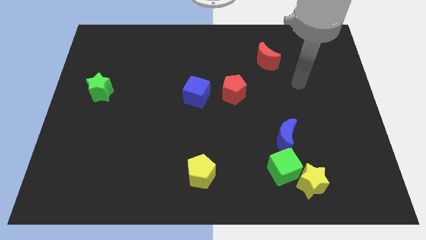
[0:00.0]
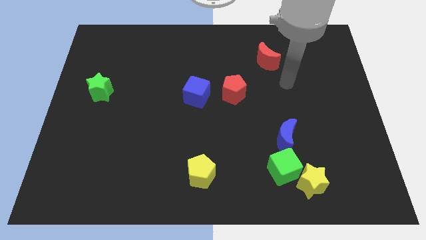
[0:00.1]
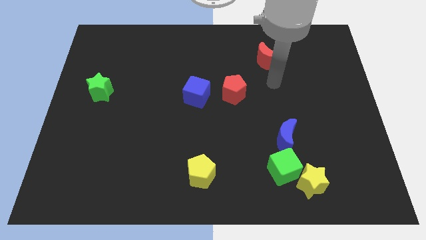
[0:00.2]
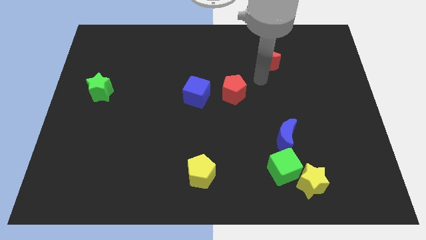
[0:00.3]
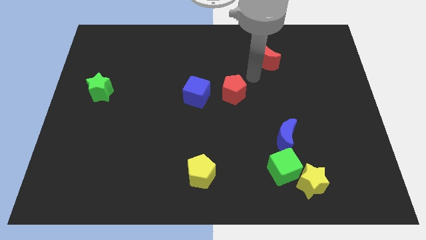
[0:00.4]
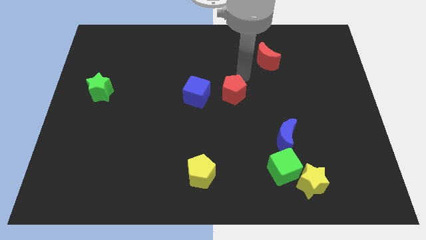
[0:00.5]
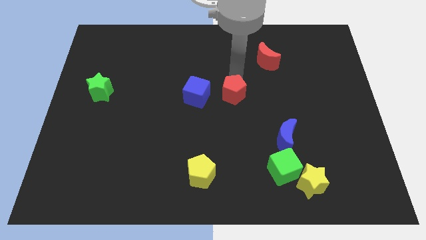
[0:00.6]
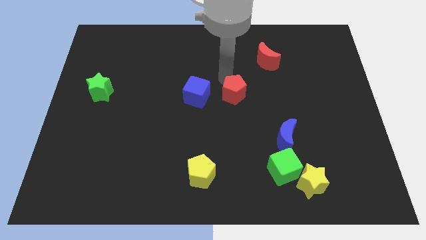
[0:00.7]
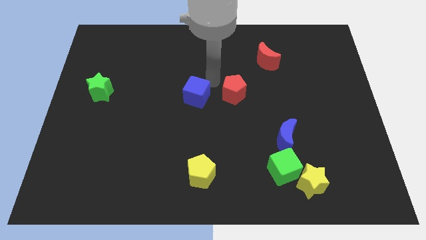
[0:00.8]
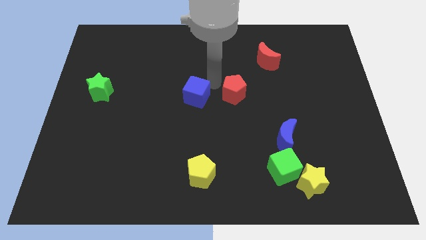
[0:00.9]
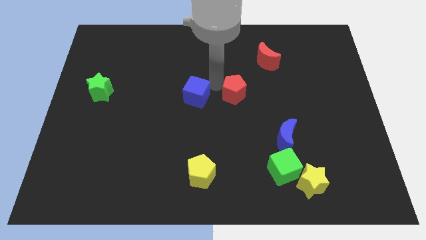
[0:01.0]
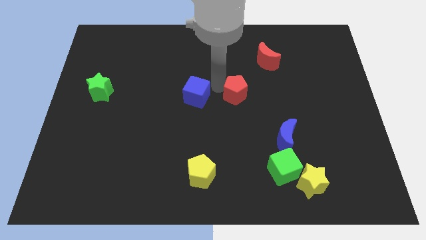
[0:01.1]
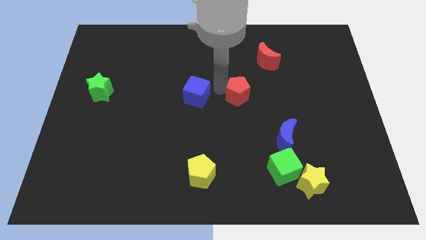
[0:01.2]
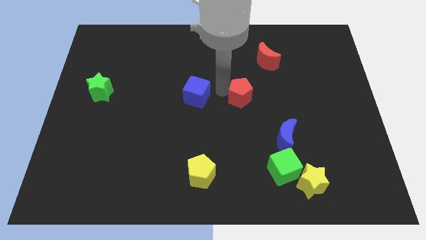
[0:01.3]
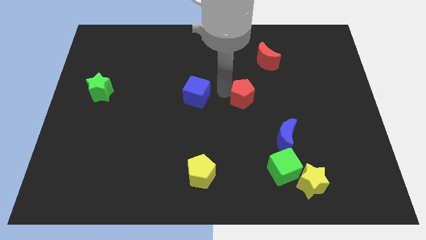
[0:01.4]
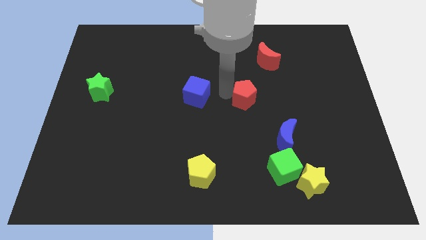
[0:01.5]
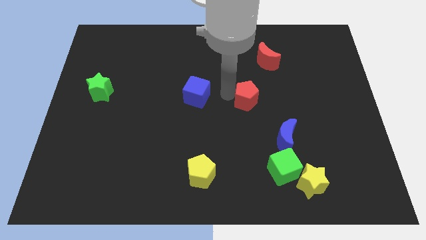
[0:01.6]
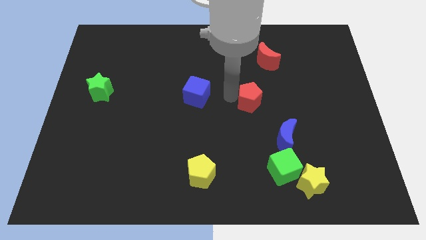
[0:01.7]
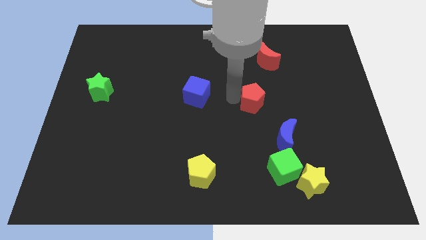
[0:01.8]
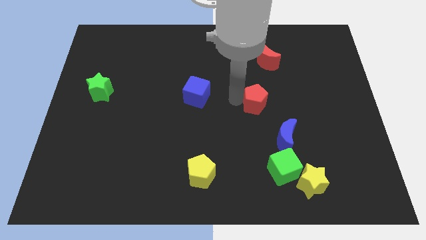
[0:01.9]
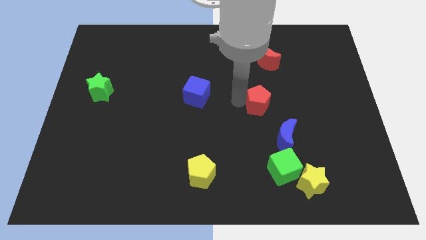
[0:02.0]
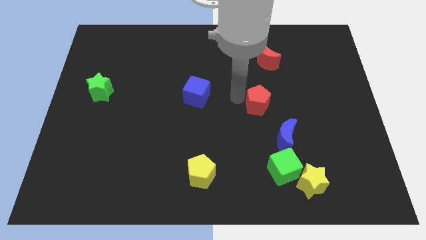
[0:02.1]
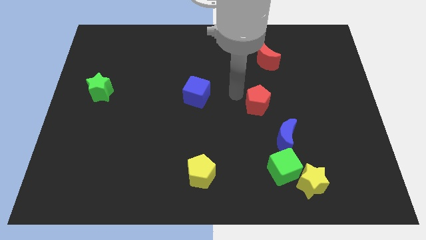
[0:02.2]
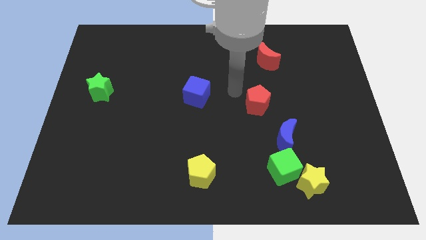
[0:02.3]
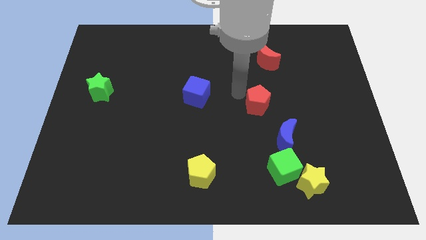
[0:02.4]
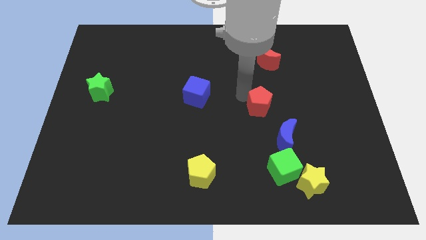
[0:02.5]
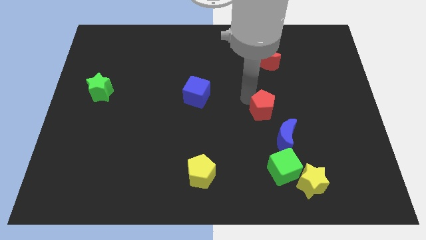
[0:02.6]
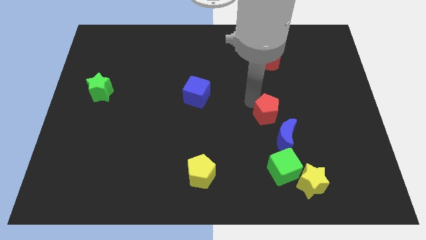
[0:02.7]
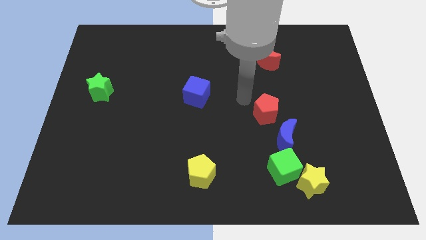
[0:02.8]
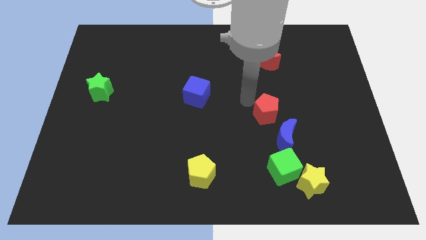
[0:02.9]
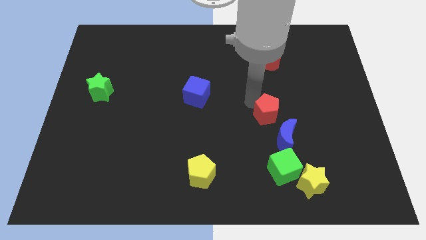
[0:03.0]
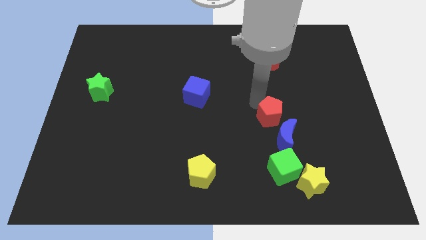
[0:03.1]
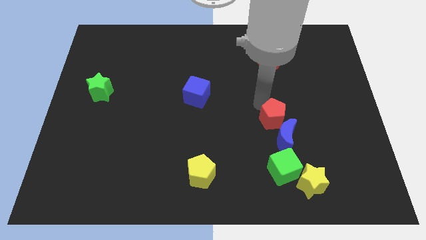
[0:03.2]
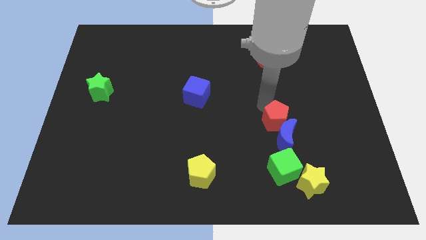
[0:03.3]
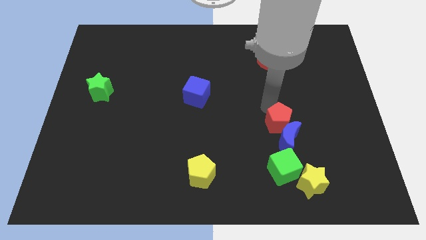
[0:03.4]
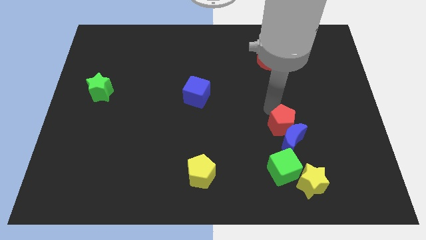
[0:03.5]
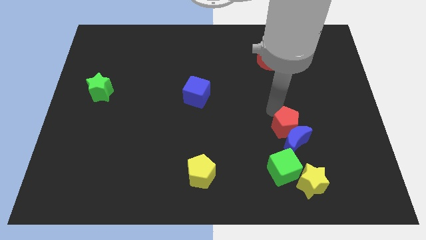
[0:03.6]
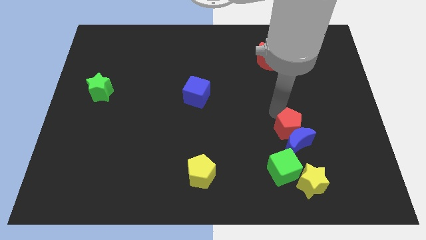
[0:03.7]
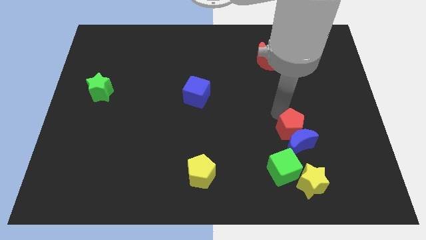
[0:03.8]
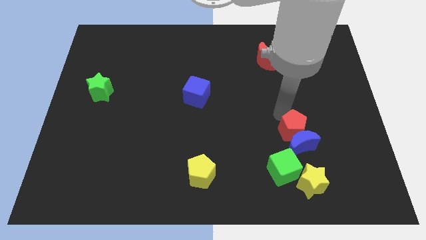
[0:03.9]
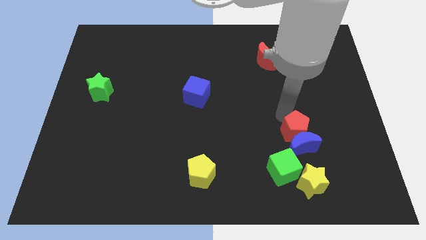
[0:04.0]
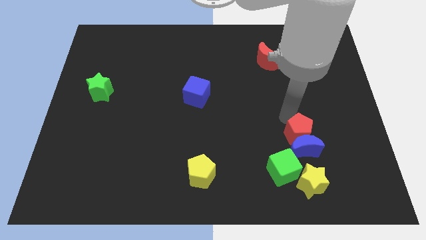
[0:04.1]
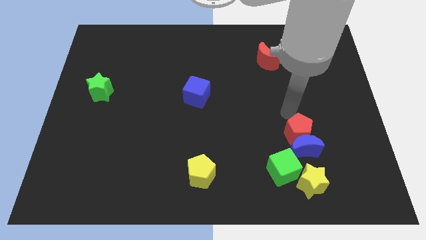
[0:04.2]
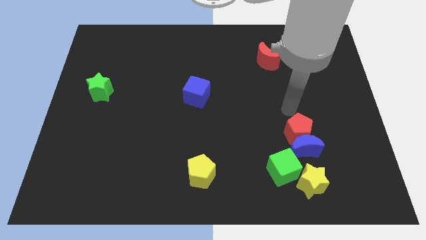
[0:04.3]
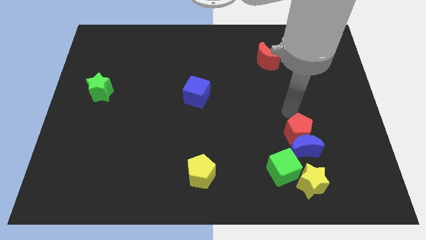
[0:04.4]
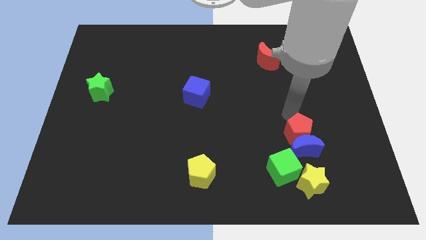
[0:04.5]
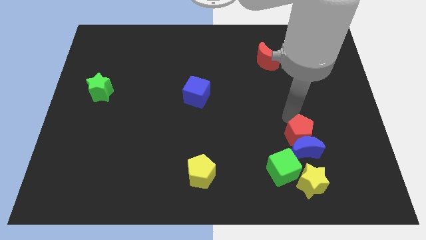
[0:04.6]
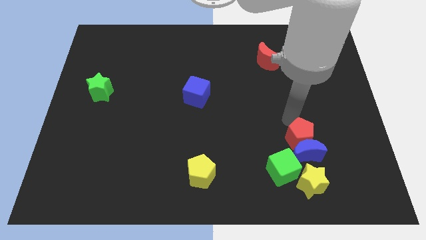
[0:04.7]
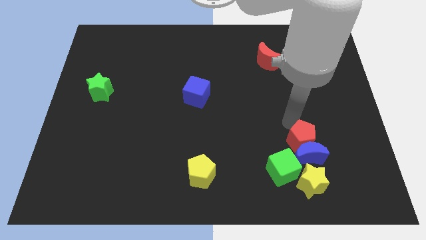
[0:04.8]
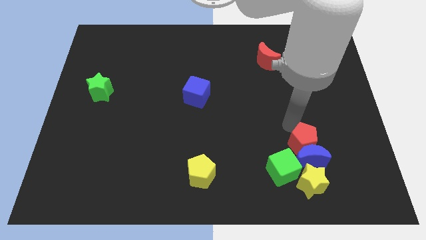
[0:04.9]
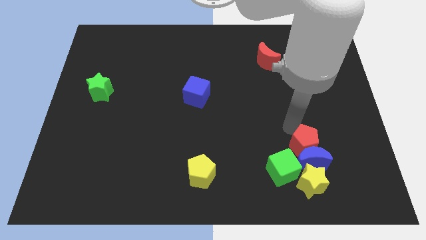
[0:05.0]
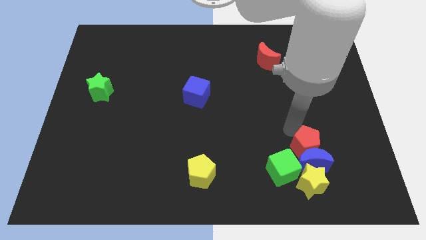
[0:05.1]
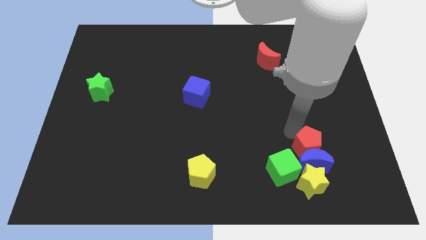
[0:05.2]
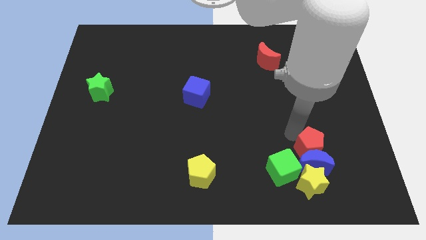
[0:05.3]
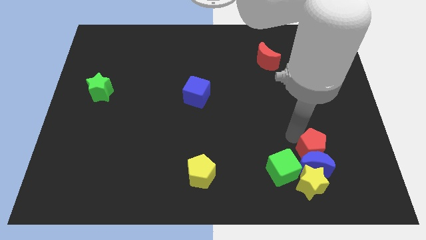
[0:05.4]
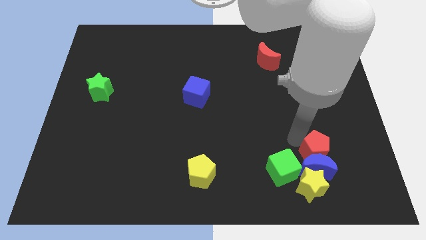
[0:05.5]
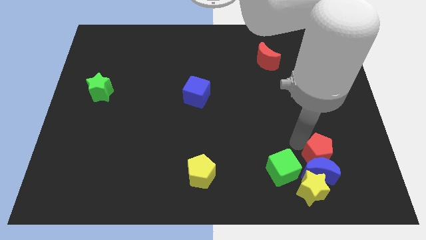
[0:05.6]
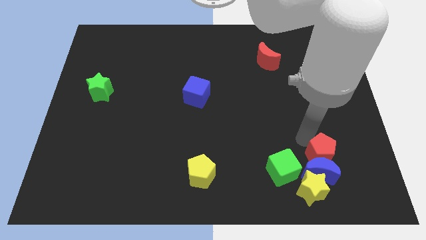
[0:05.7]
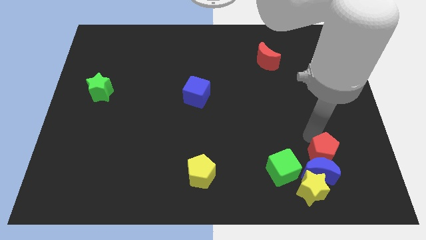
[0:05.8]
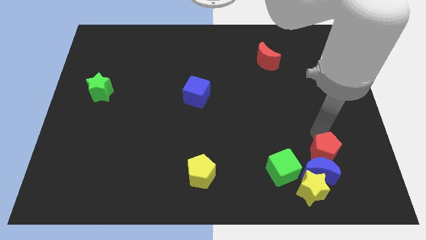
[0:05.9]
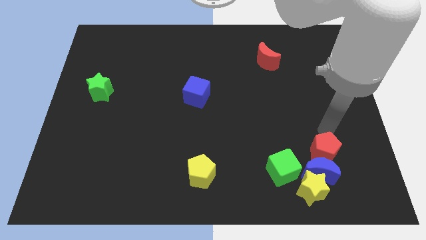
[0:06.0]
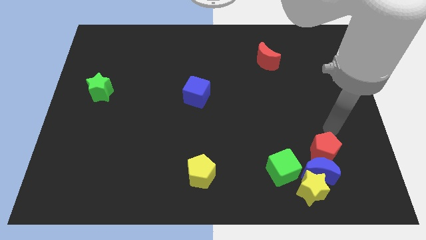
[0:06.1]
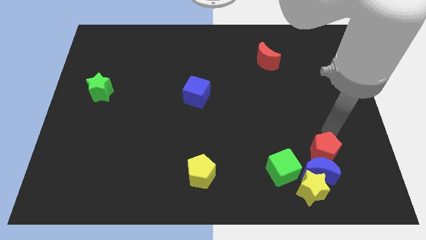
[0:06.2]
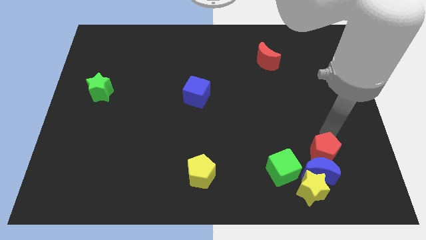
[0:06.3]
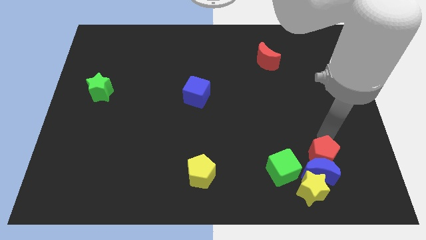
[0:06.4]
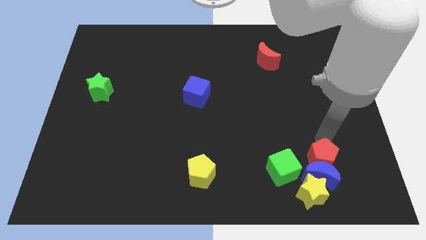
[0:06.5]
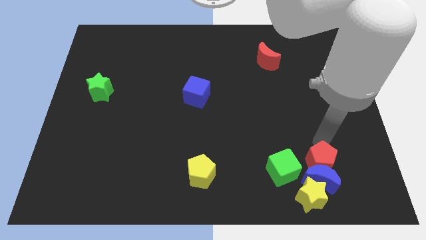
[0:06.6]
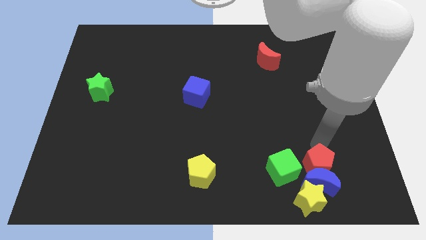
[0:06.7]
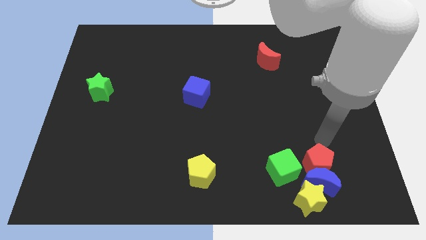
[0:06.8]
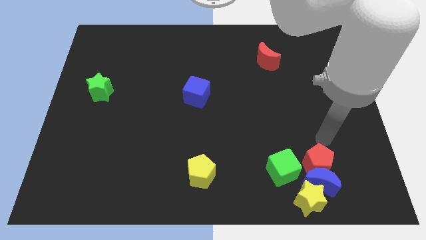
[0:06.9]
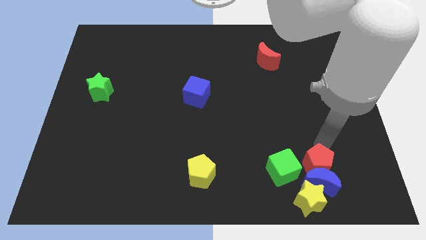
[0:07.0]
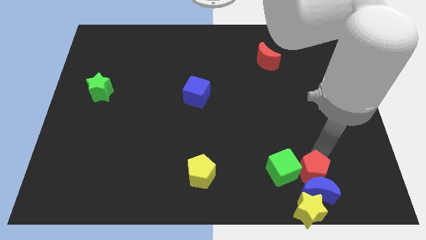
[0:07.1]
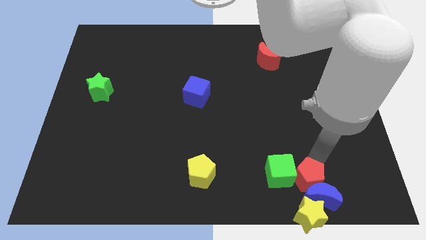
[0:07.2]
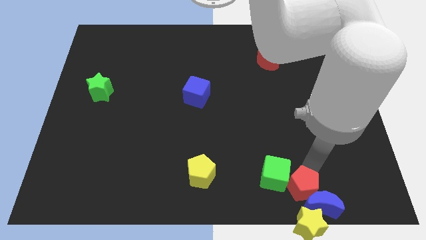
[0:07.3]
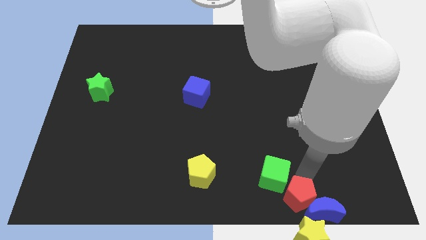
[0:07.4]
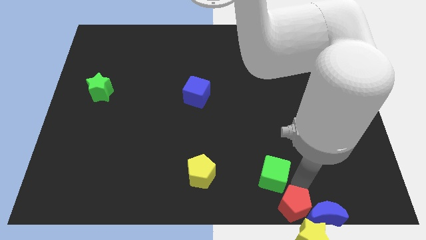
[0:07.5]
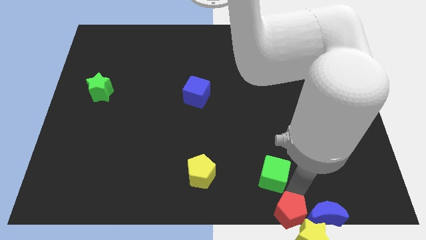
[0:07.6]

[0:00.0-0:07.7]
put the red pentagon towards the yellow star
